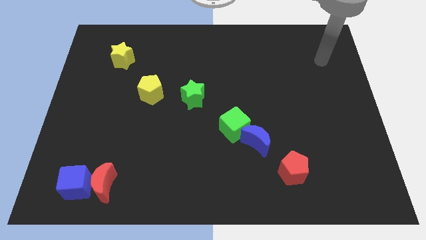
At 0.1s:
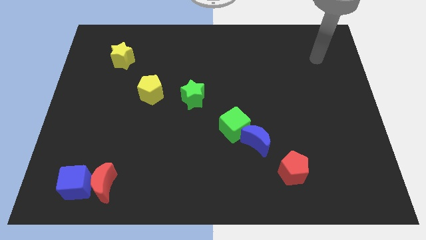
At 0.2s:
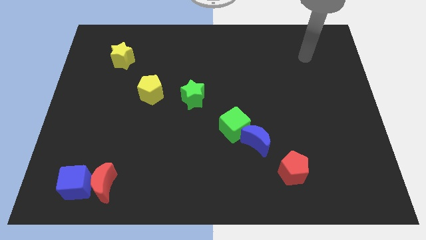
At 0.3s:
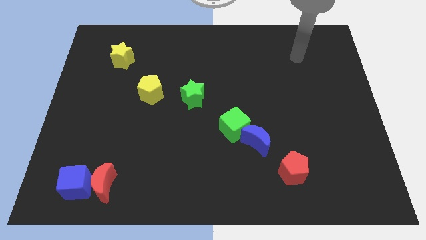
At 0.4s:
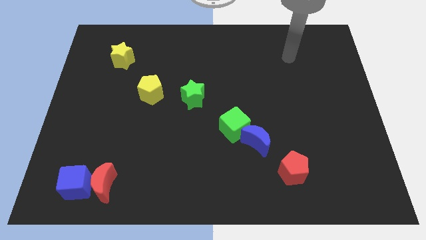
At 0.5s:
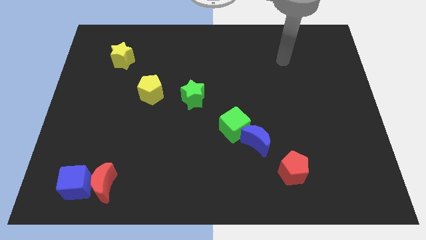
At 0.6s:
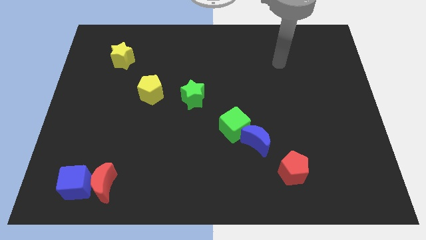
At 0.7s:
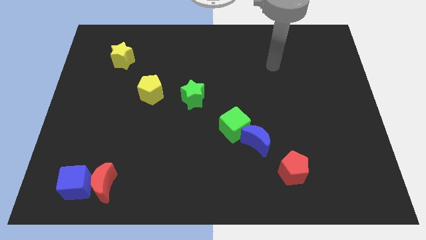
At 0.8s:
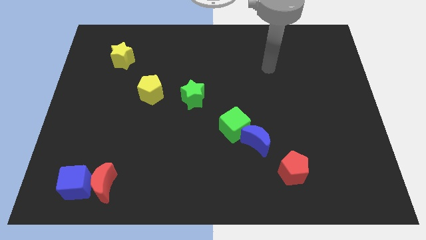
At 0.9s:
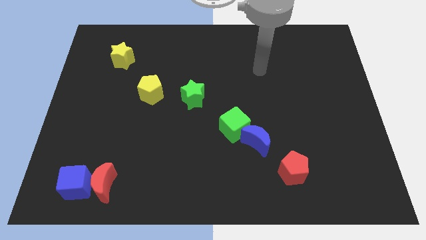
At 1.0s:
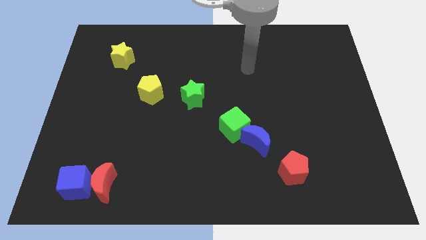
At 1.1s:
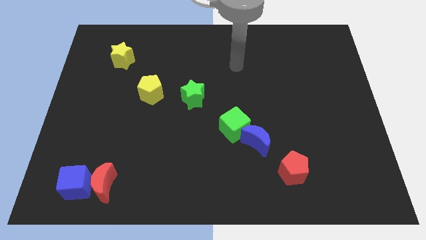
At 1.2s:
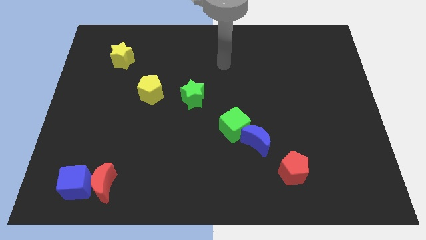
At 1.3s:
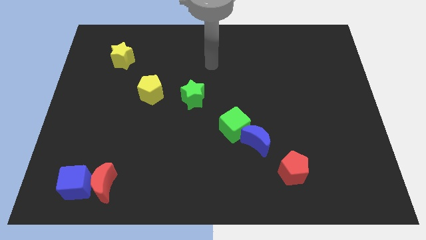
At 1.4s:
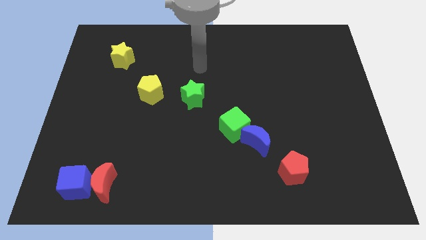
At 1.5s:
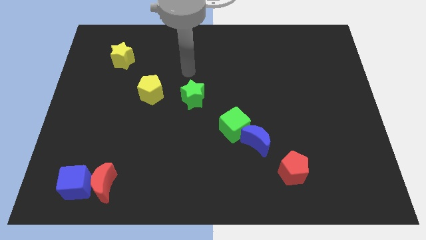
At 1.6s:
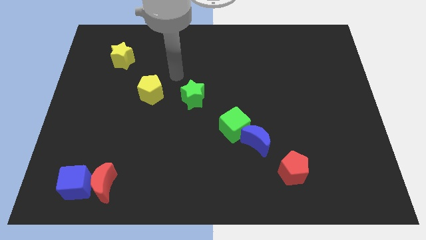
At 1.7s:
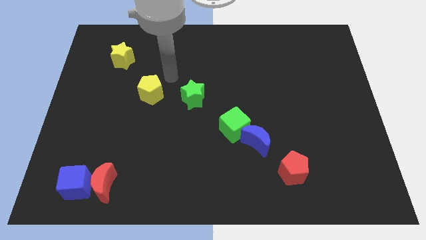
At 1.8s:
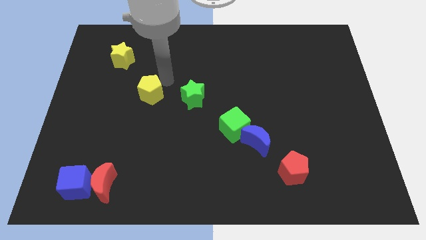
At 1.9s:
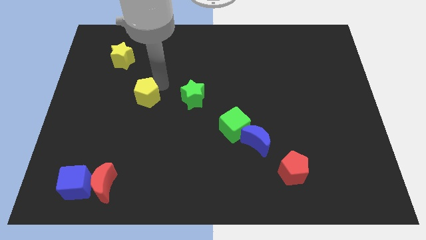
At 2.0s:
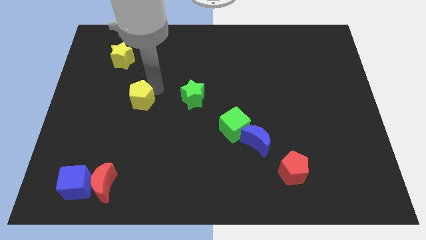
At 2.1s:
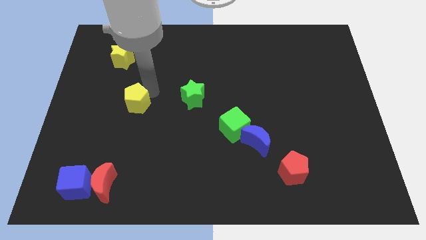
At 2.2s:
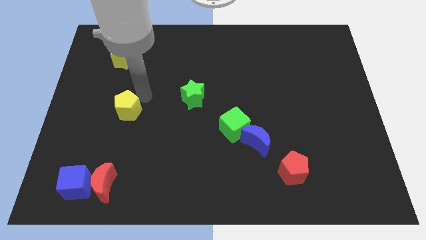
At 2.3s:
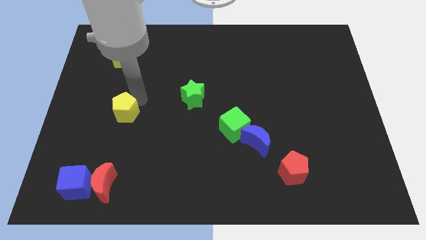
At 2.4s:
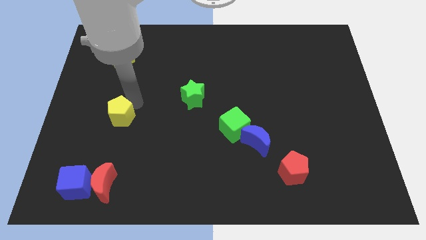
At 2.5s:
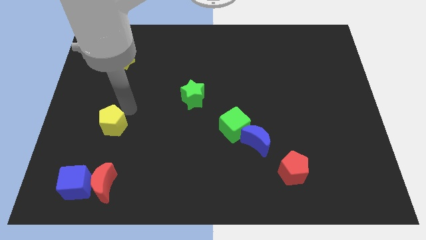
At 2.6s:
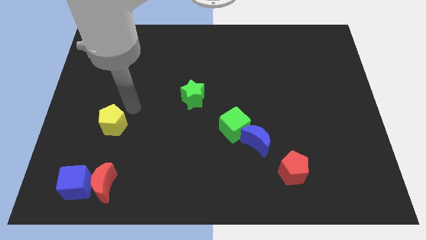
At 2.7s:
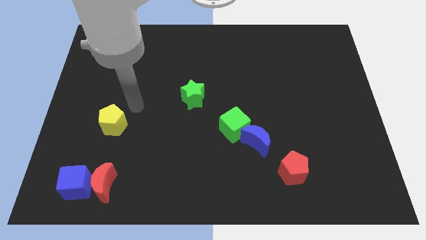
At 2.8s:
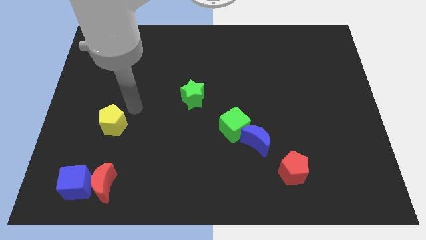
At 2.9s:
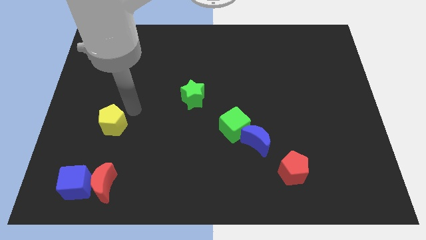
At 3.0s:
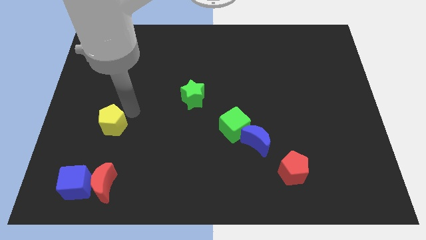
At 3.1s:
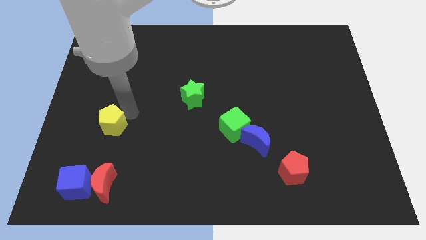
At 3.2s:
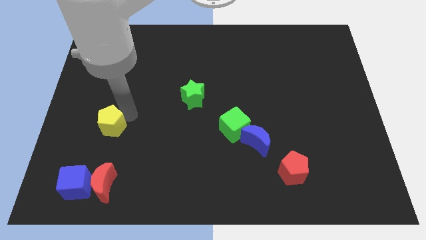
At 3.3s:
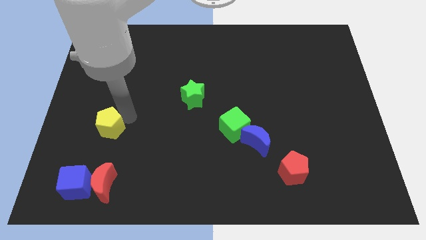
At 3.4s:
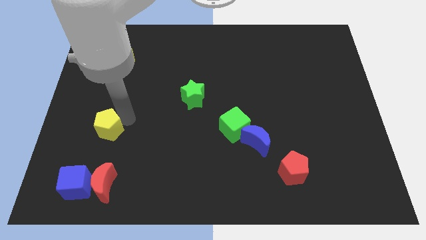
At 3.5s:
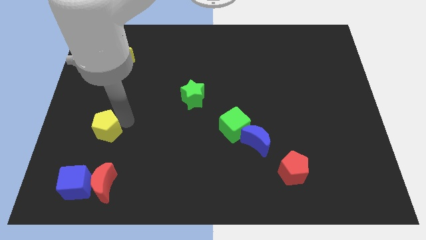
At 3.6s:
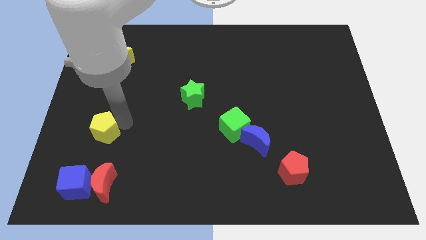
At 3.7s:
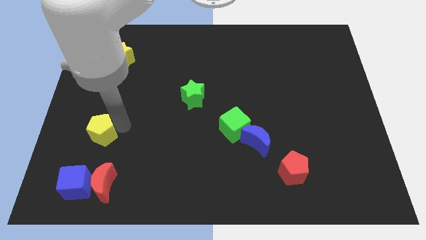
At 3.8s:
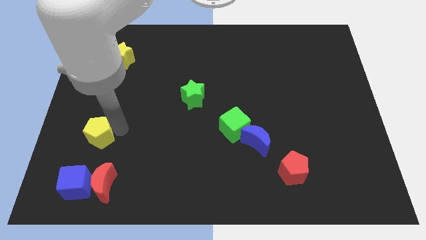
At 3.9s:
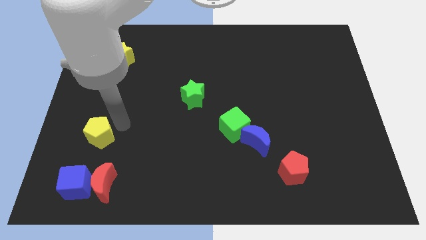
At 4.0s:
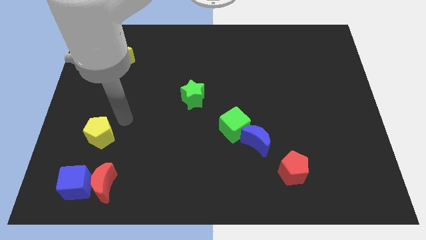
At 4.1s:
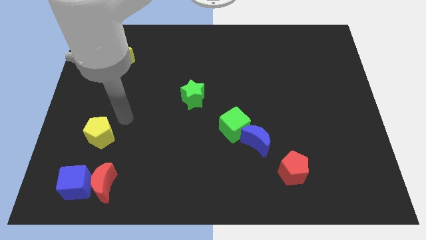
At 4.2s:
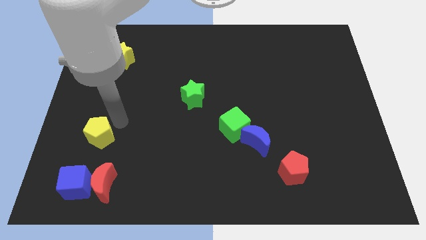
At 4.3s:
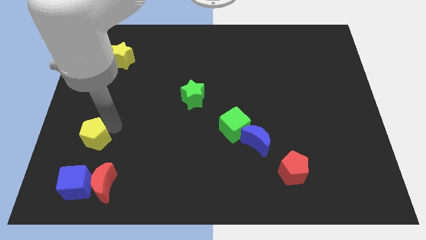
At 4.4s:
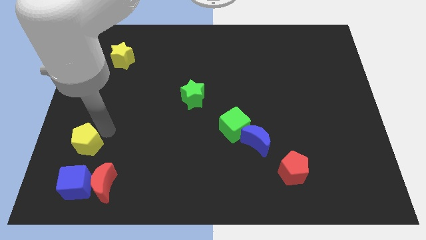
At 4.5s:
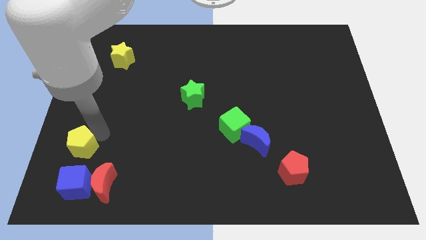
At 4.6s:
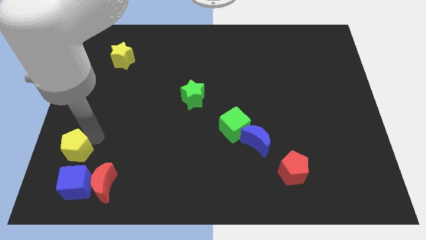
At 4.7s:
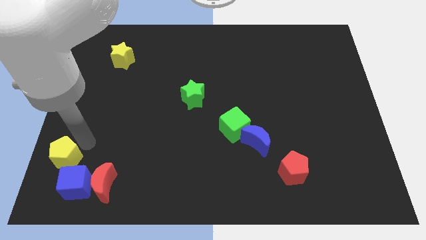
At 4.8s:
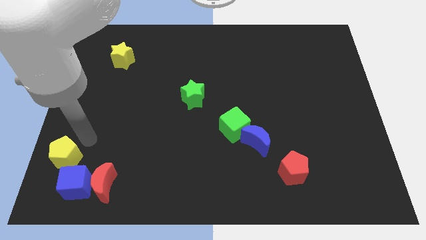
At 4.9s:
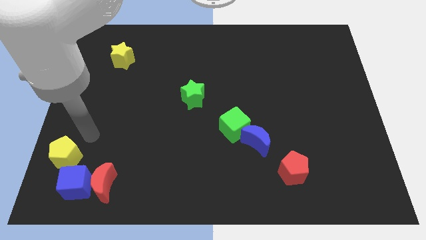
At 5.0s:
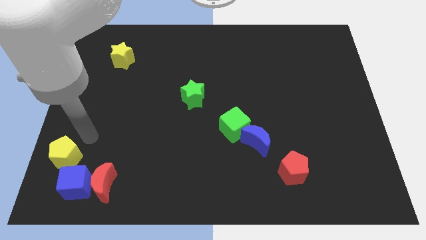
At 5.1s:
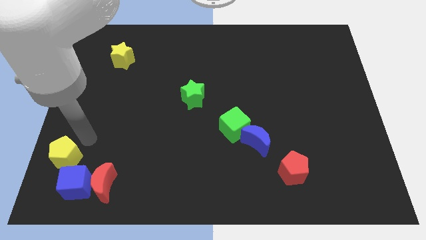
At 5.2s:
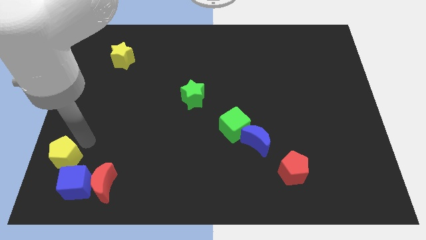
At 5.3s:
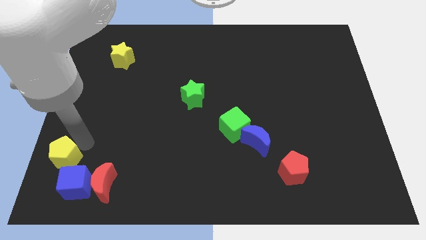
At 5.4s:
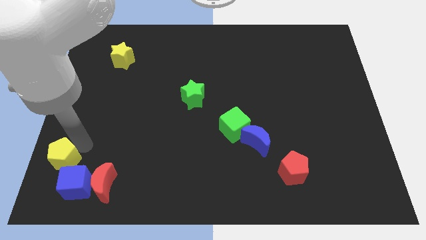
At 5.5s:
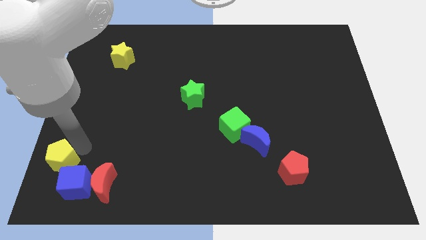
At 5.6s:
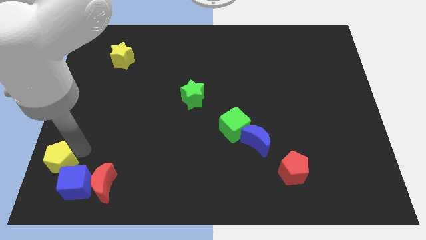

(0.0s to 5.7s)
push the yellow pentagon to the bottom left of the board

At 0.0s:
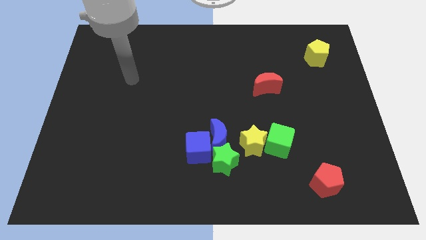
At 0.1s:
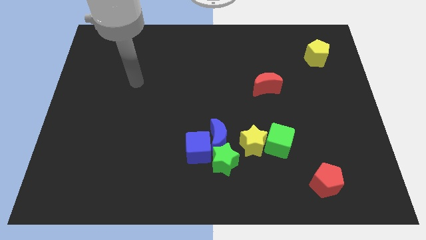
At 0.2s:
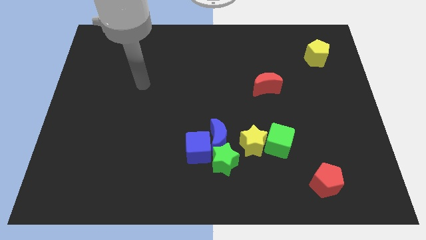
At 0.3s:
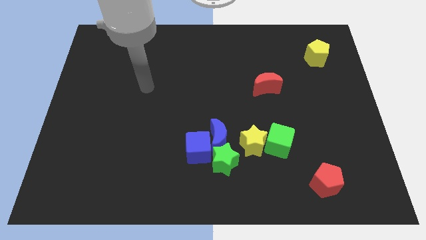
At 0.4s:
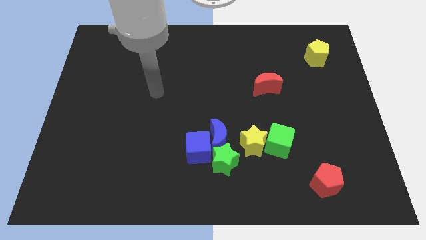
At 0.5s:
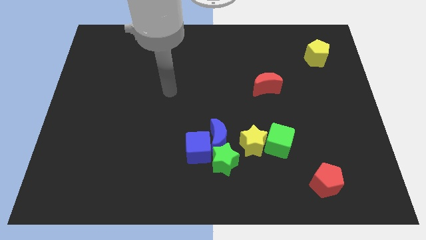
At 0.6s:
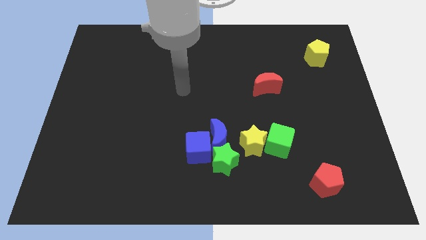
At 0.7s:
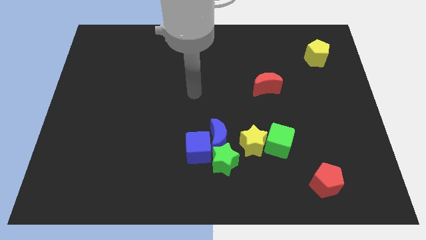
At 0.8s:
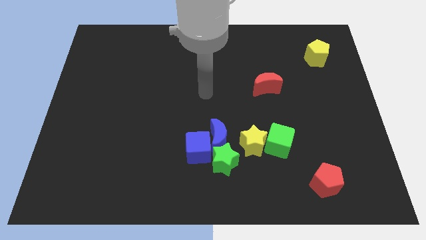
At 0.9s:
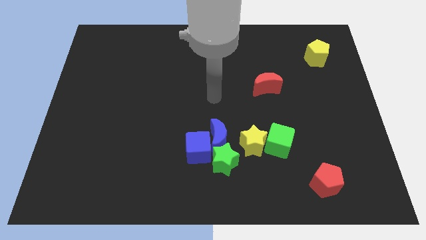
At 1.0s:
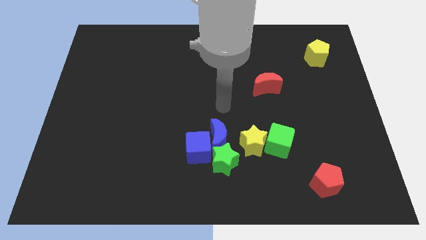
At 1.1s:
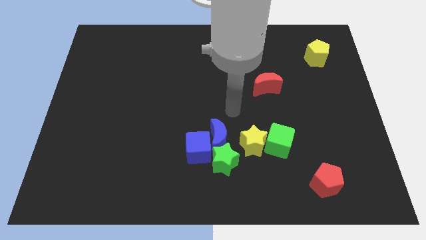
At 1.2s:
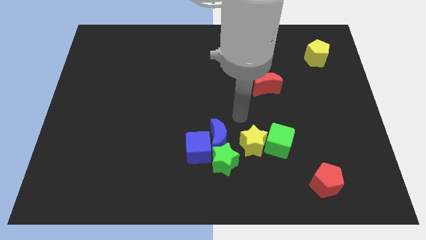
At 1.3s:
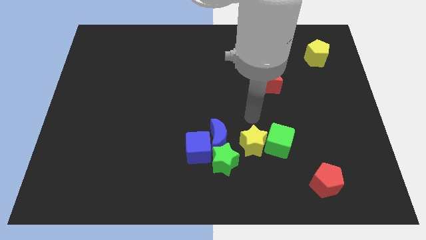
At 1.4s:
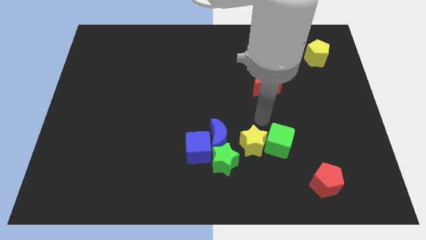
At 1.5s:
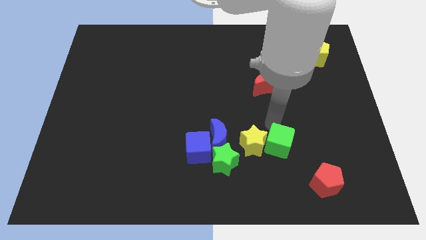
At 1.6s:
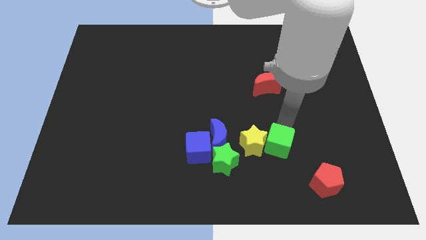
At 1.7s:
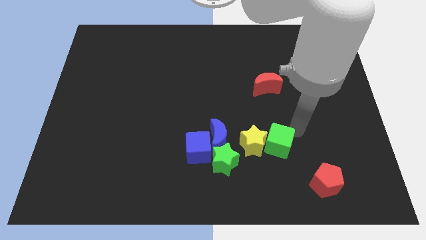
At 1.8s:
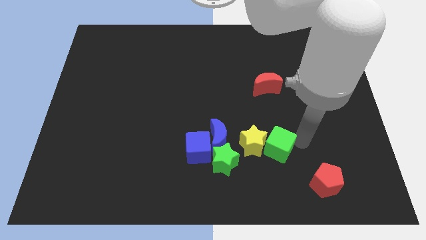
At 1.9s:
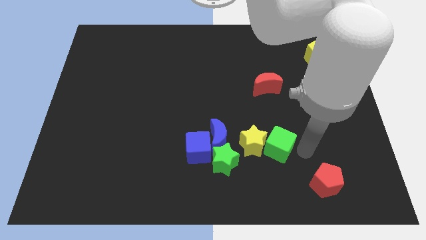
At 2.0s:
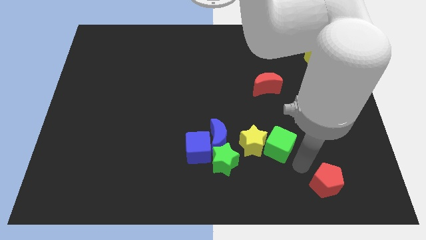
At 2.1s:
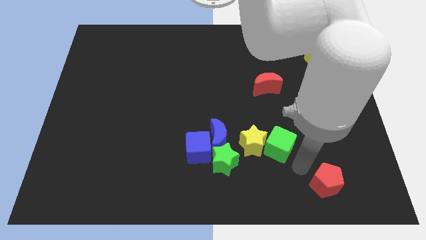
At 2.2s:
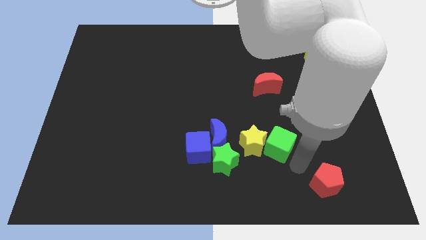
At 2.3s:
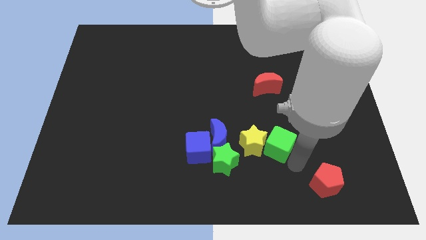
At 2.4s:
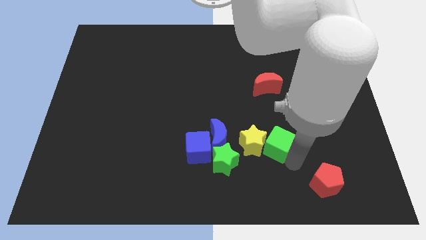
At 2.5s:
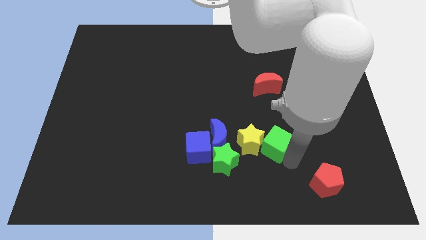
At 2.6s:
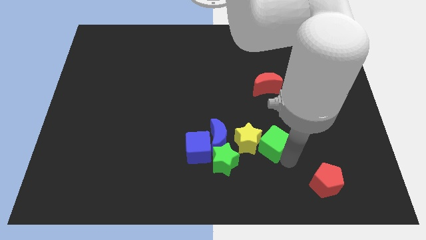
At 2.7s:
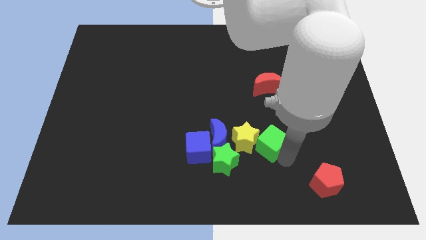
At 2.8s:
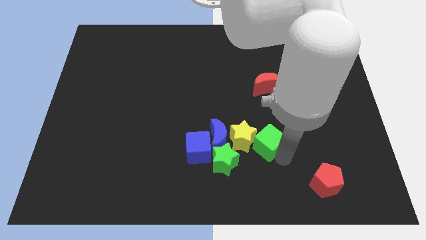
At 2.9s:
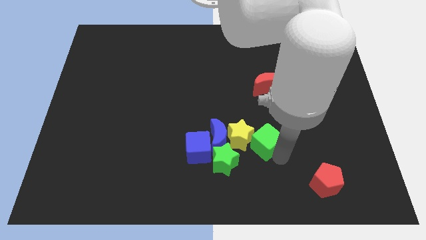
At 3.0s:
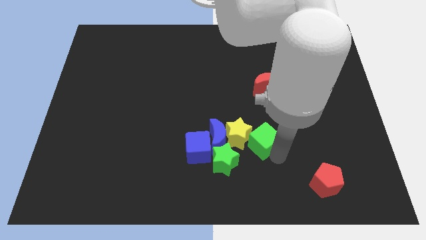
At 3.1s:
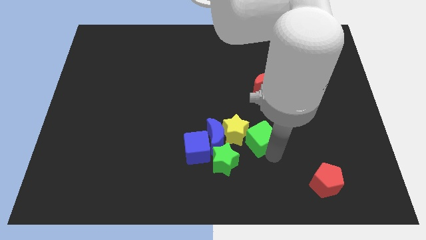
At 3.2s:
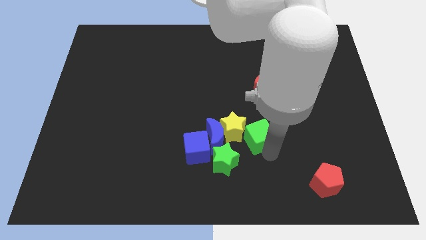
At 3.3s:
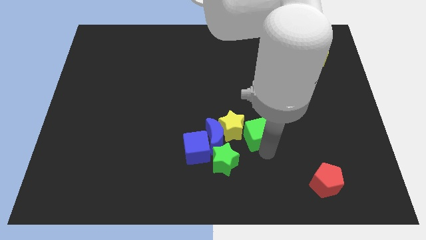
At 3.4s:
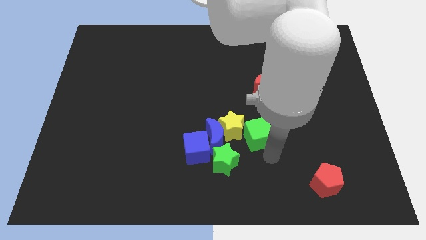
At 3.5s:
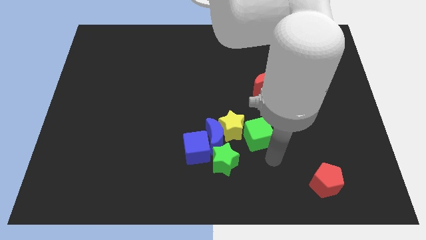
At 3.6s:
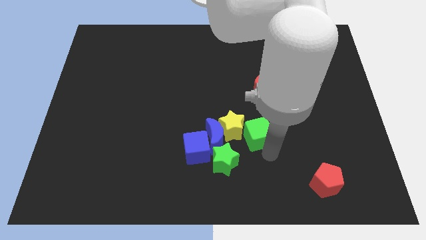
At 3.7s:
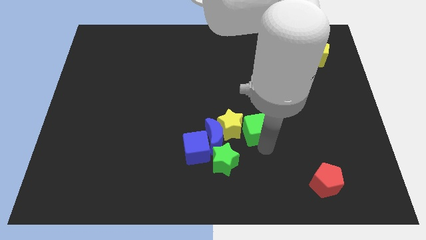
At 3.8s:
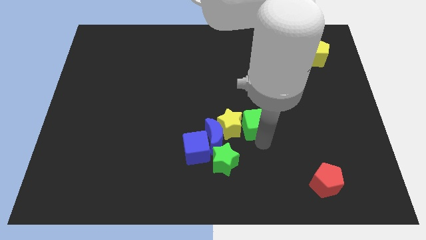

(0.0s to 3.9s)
put the green cube to the middle
